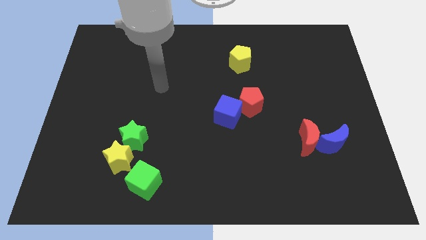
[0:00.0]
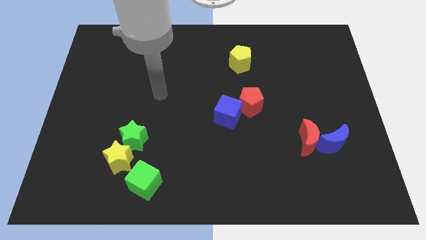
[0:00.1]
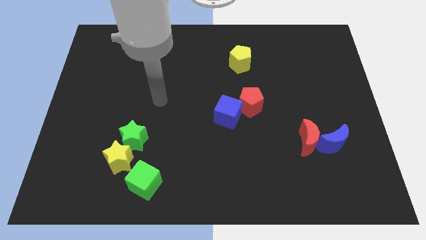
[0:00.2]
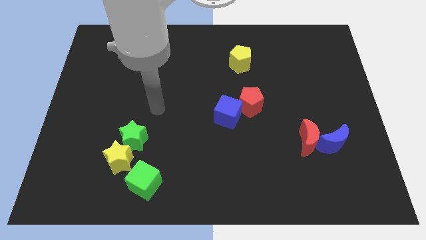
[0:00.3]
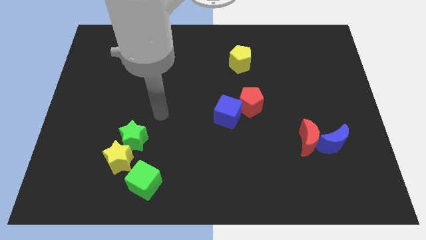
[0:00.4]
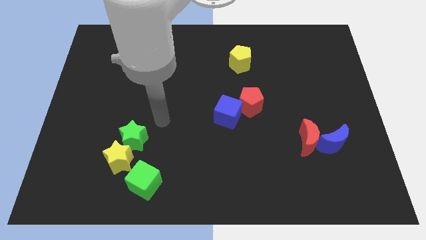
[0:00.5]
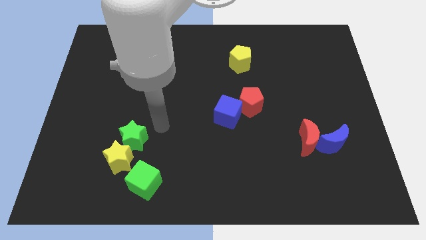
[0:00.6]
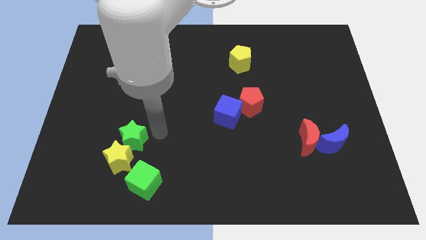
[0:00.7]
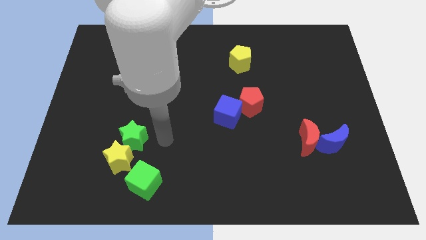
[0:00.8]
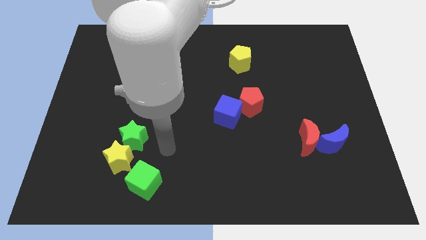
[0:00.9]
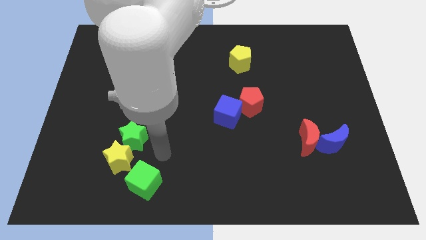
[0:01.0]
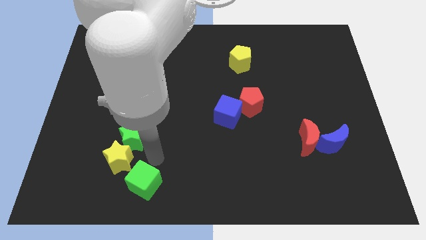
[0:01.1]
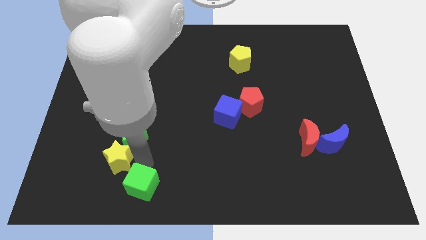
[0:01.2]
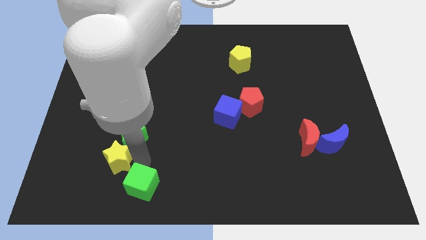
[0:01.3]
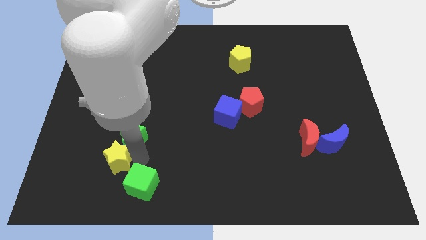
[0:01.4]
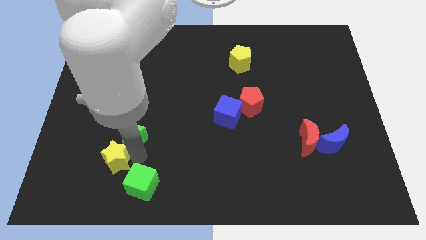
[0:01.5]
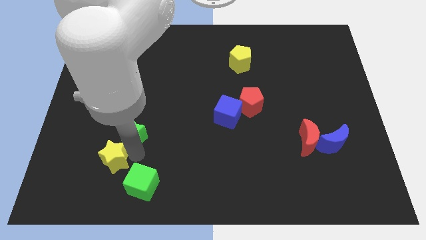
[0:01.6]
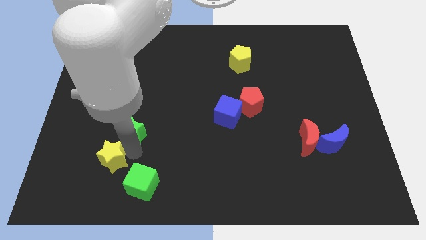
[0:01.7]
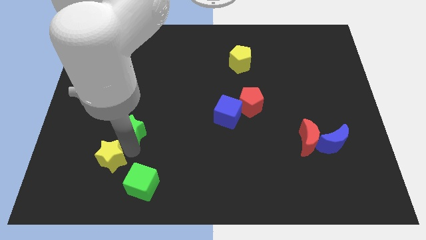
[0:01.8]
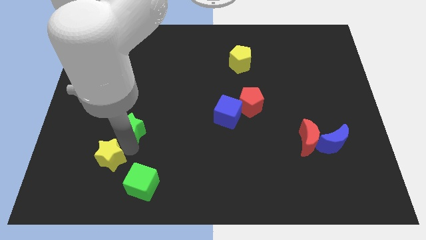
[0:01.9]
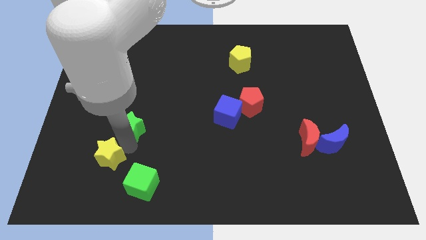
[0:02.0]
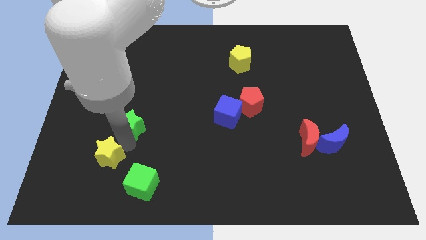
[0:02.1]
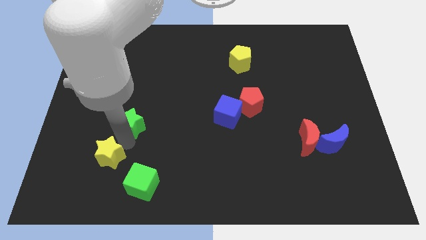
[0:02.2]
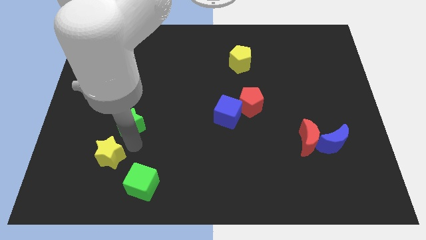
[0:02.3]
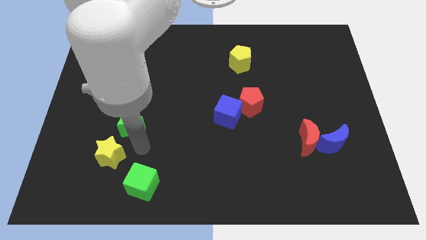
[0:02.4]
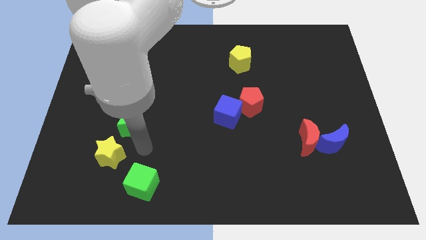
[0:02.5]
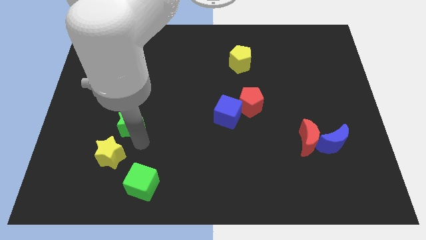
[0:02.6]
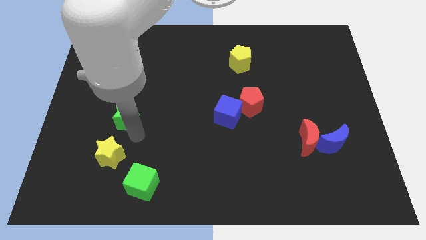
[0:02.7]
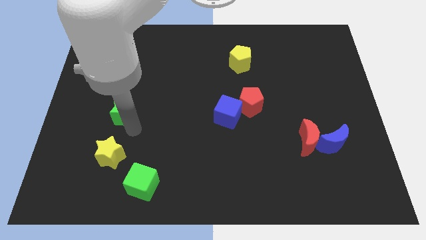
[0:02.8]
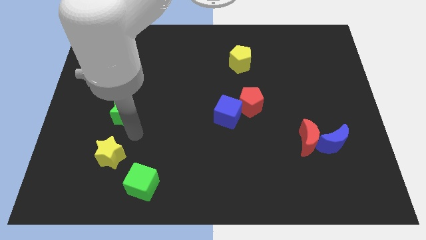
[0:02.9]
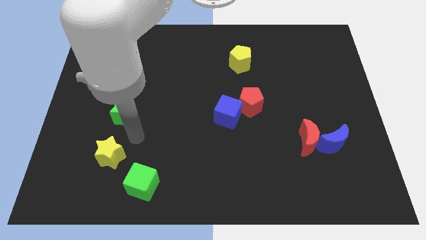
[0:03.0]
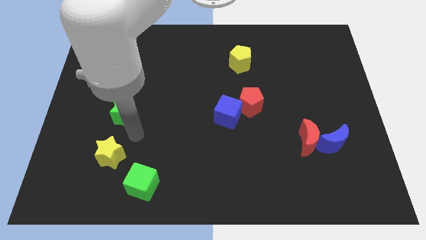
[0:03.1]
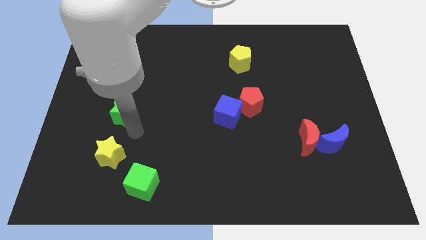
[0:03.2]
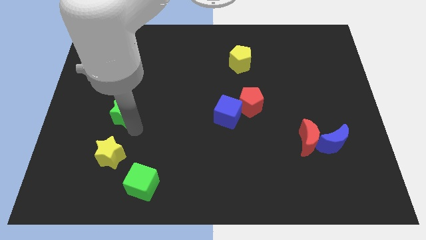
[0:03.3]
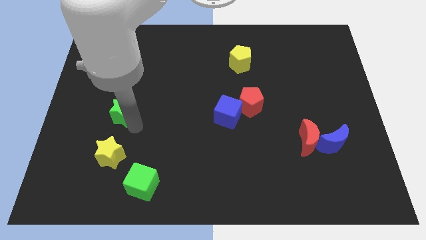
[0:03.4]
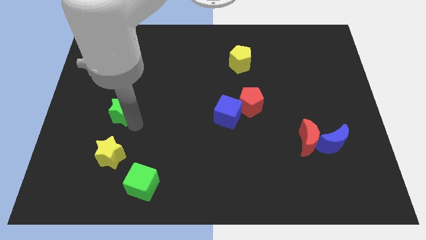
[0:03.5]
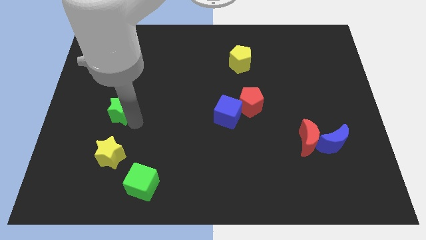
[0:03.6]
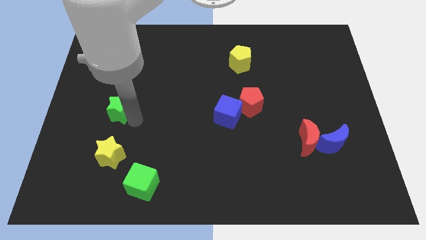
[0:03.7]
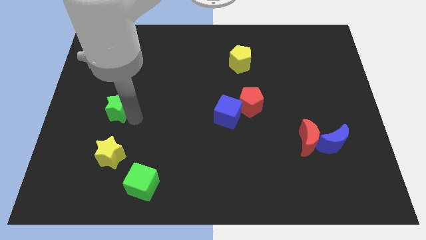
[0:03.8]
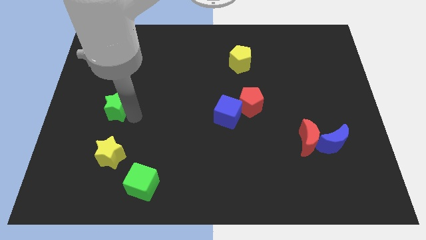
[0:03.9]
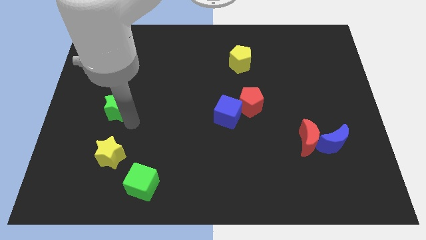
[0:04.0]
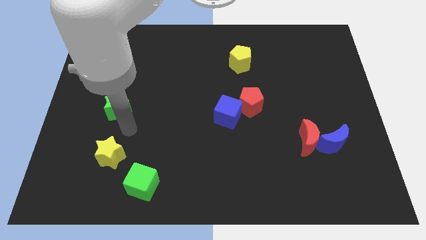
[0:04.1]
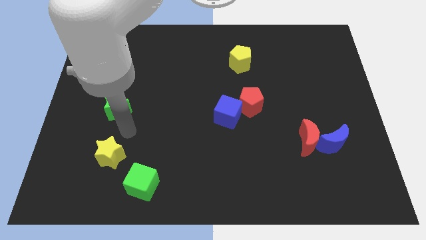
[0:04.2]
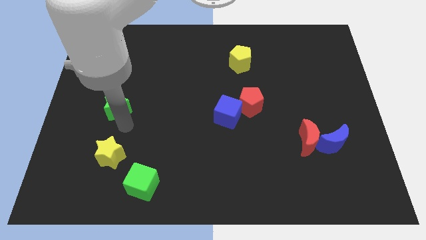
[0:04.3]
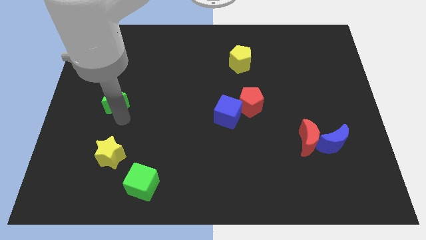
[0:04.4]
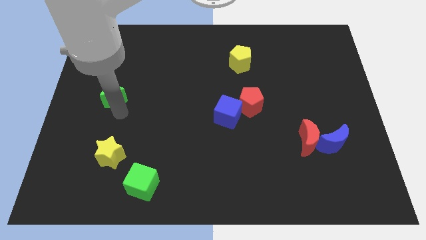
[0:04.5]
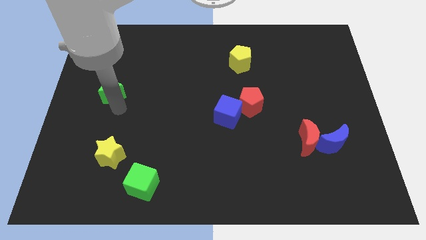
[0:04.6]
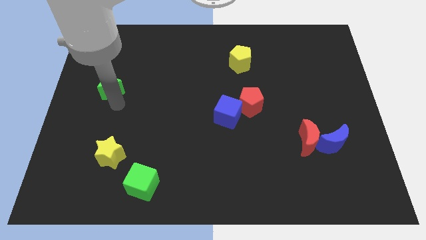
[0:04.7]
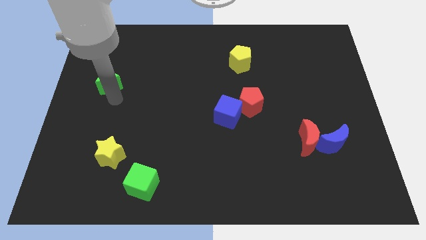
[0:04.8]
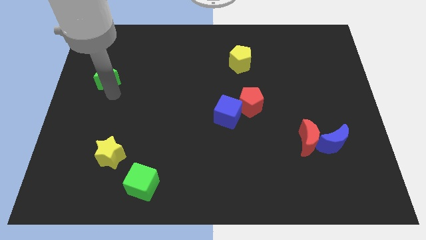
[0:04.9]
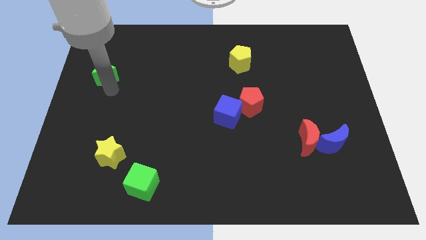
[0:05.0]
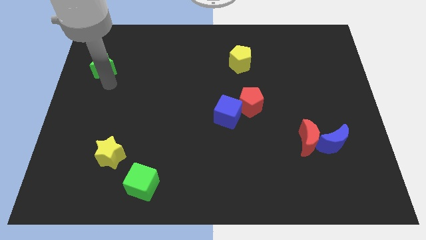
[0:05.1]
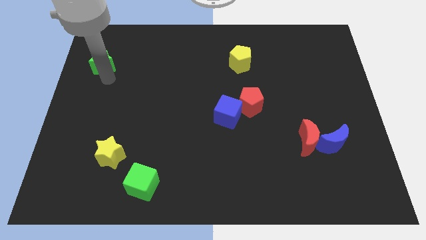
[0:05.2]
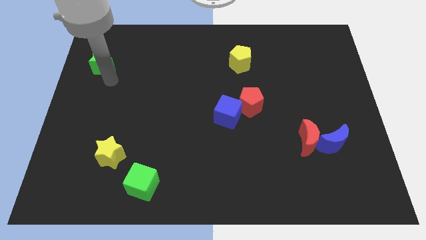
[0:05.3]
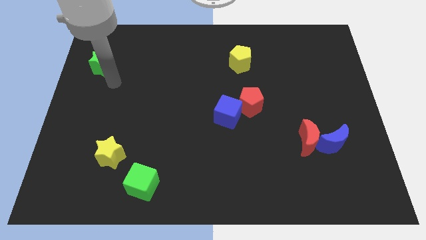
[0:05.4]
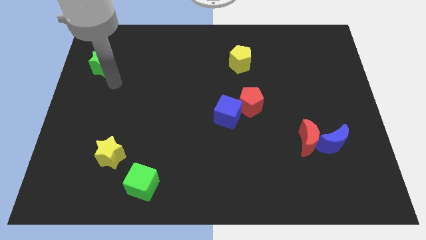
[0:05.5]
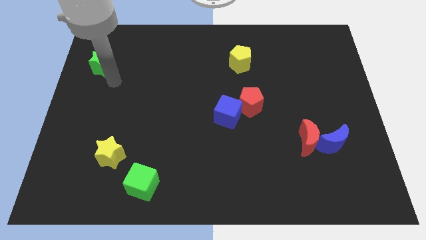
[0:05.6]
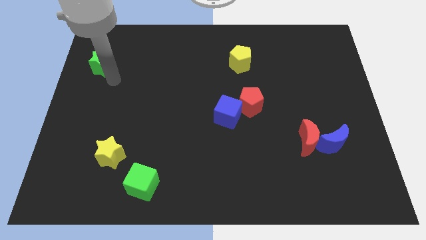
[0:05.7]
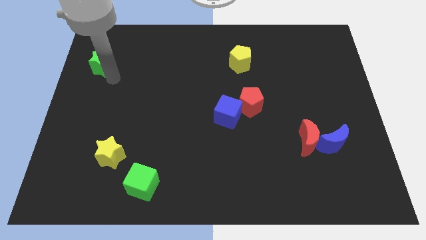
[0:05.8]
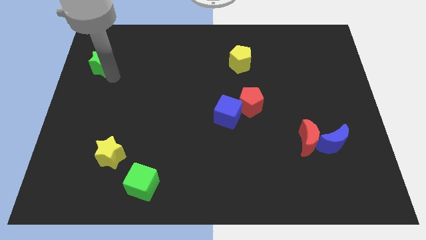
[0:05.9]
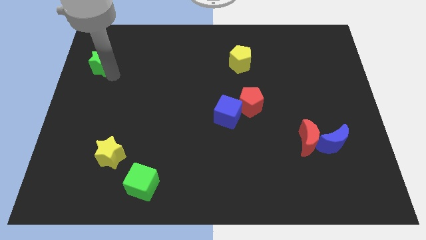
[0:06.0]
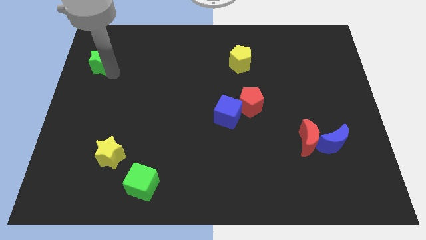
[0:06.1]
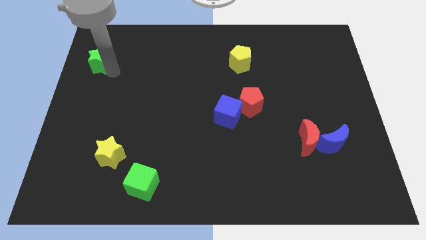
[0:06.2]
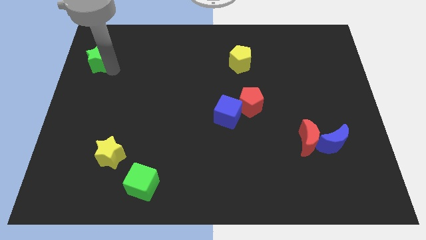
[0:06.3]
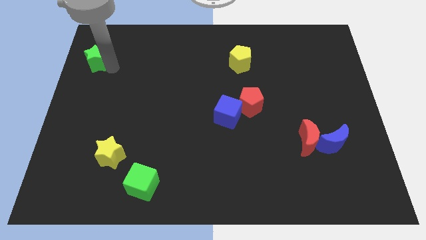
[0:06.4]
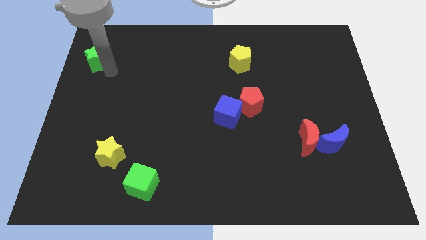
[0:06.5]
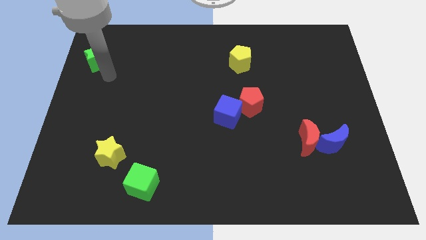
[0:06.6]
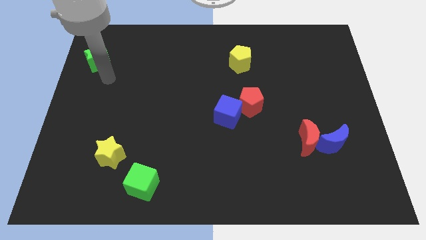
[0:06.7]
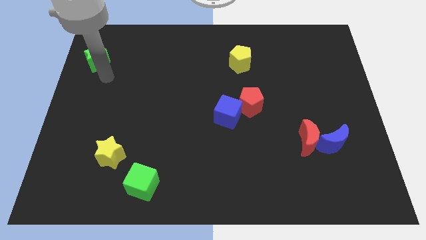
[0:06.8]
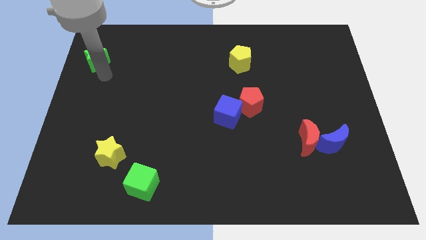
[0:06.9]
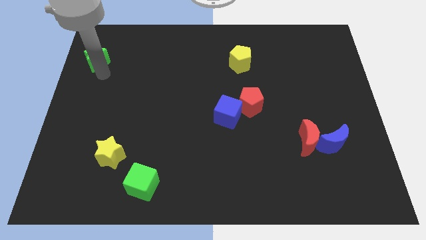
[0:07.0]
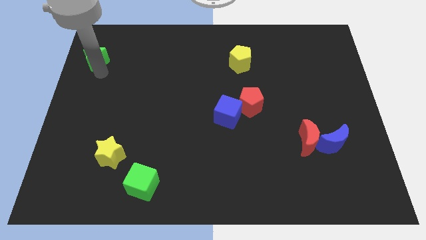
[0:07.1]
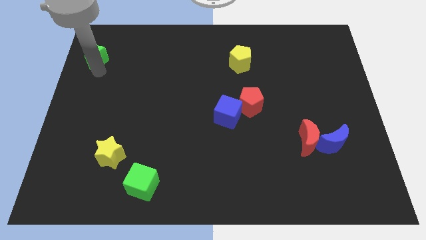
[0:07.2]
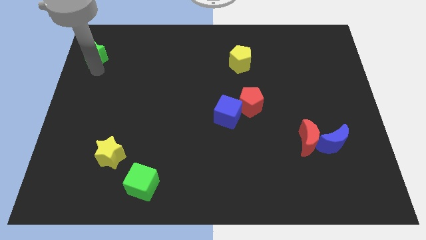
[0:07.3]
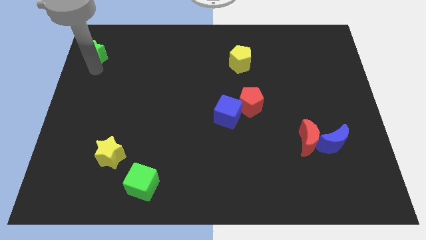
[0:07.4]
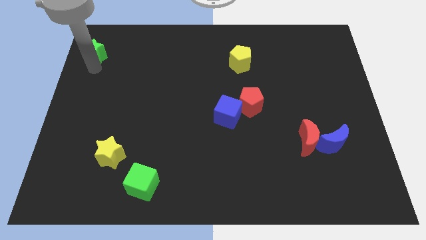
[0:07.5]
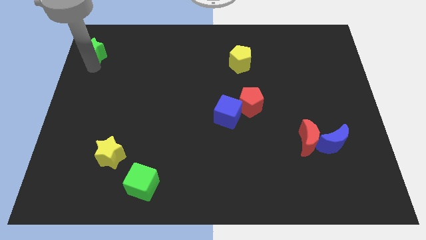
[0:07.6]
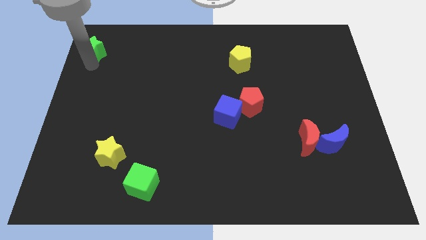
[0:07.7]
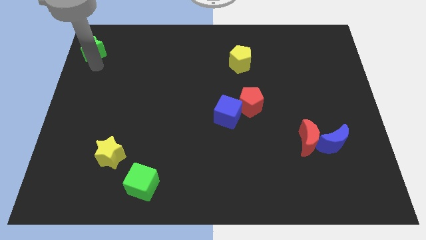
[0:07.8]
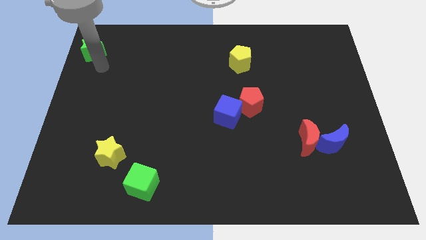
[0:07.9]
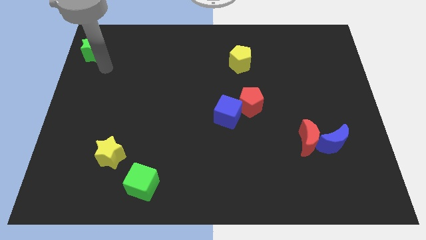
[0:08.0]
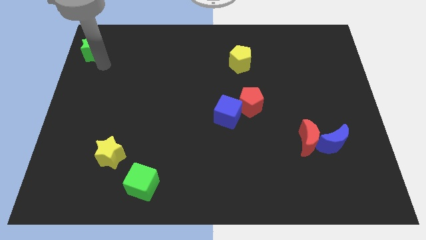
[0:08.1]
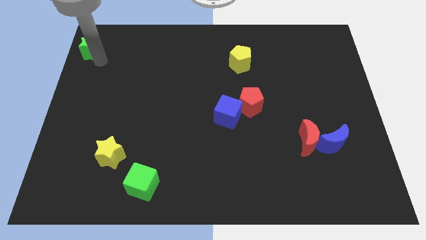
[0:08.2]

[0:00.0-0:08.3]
slide the green star to the top left
